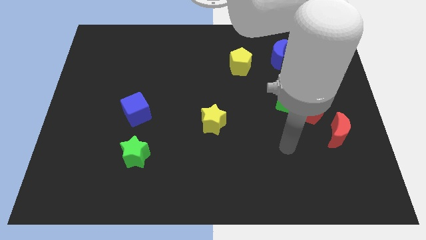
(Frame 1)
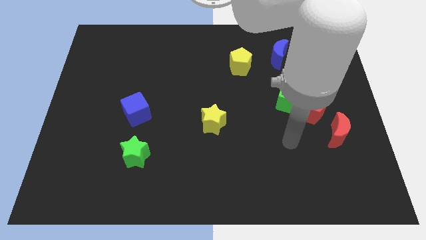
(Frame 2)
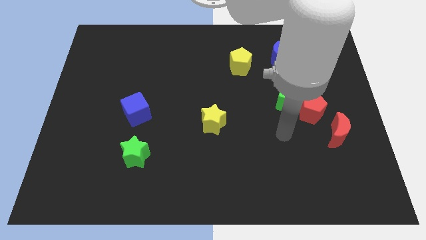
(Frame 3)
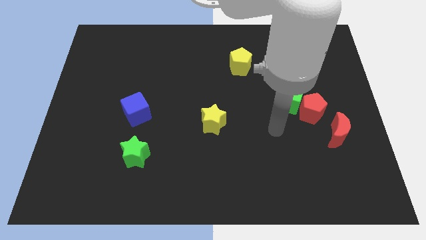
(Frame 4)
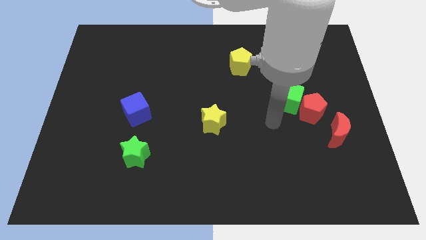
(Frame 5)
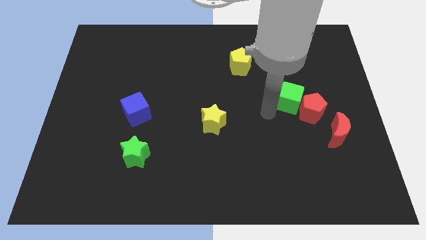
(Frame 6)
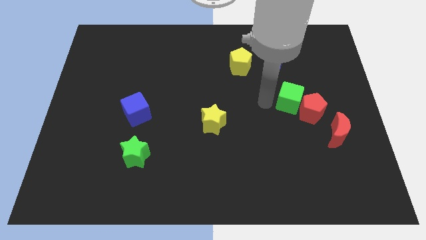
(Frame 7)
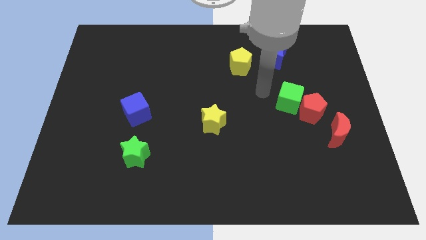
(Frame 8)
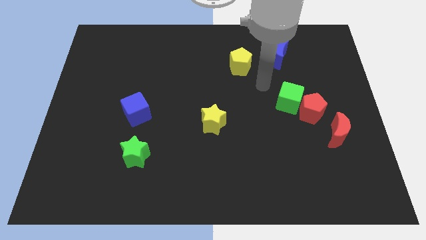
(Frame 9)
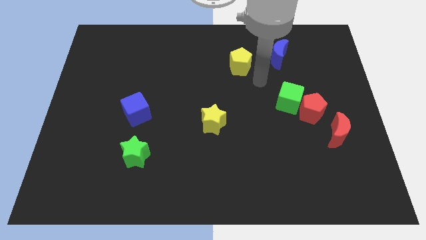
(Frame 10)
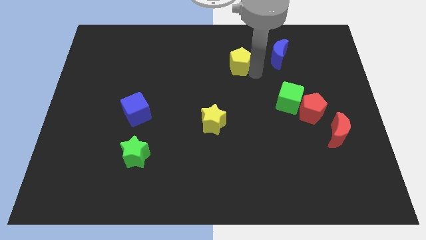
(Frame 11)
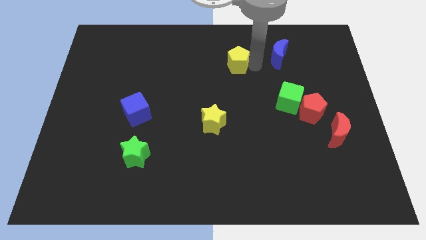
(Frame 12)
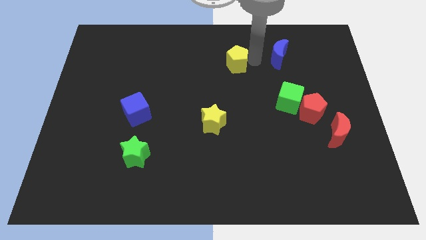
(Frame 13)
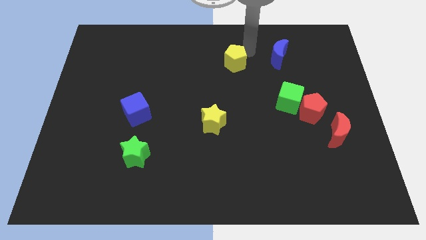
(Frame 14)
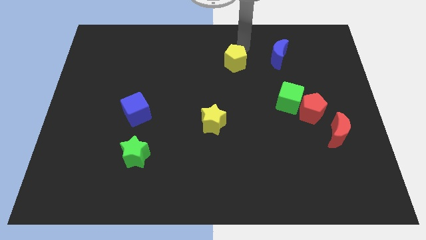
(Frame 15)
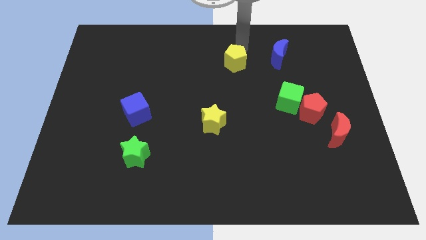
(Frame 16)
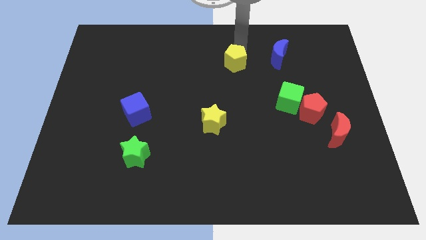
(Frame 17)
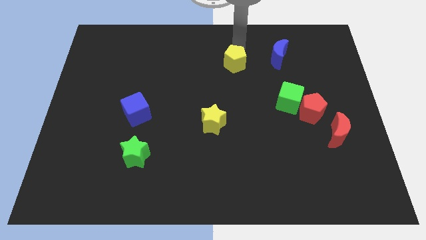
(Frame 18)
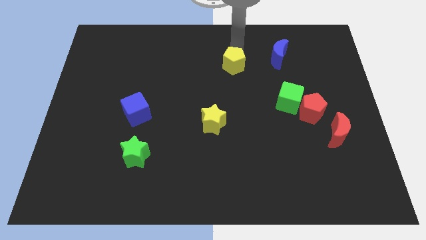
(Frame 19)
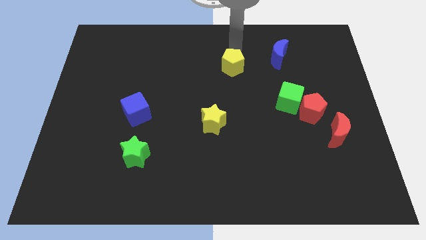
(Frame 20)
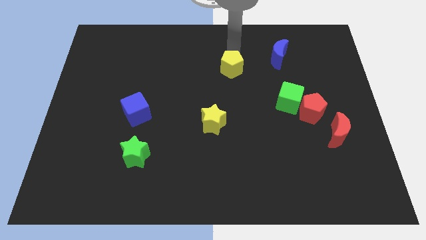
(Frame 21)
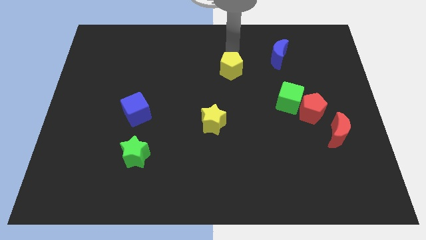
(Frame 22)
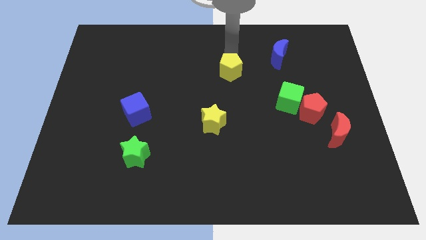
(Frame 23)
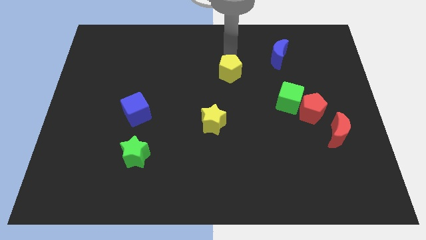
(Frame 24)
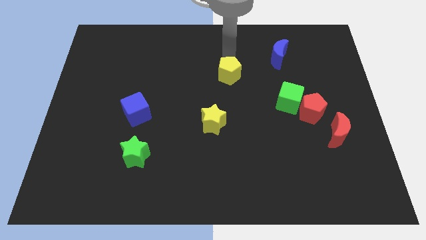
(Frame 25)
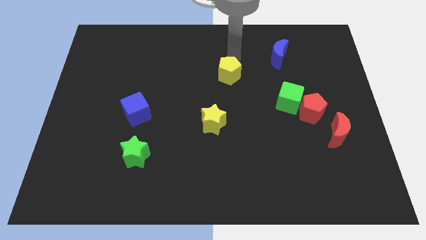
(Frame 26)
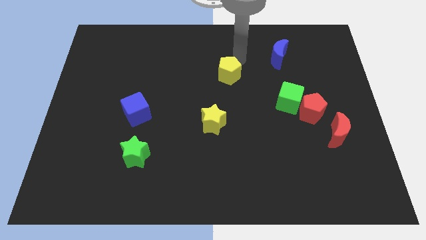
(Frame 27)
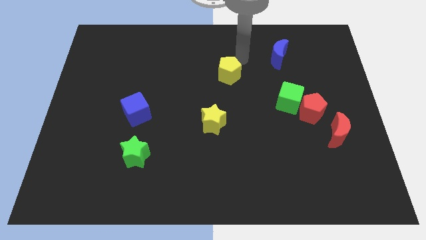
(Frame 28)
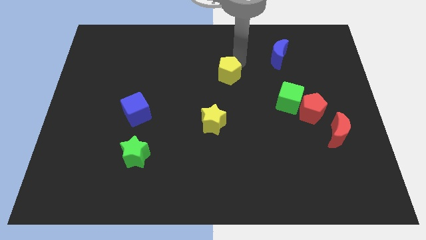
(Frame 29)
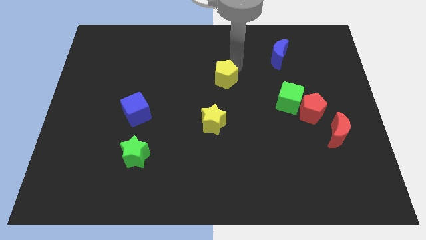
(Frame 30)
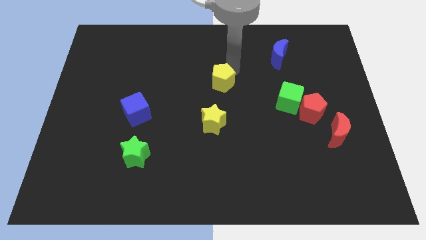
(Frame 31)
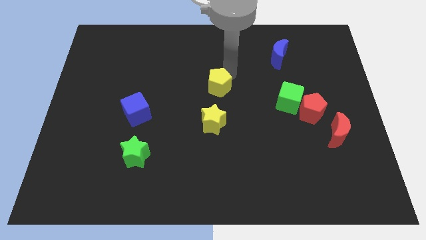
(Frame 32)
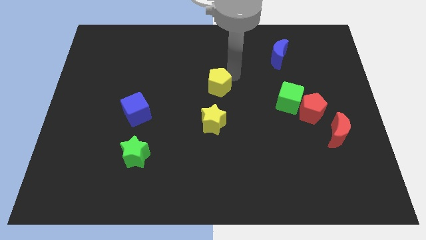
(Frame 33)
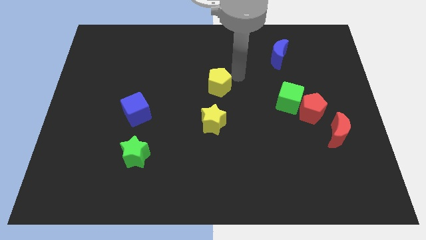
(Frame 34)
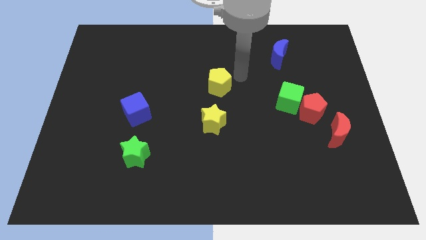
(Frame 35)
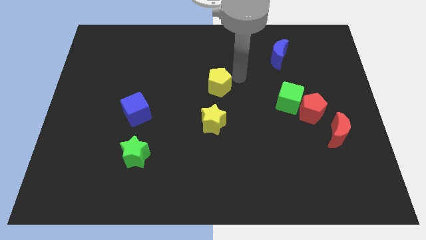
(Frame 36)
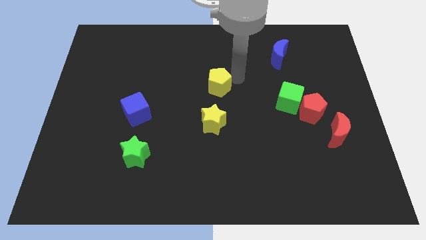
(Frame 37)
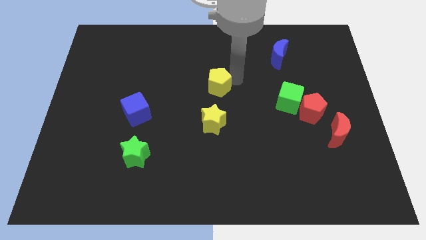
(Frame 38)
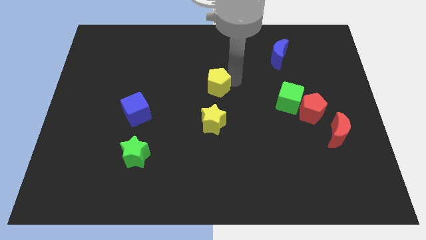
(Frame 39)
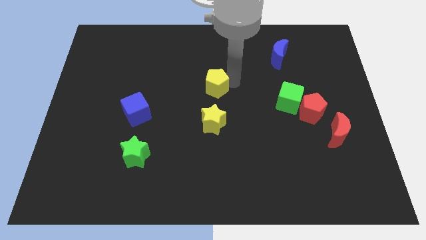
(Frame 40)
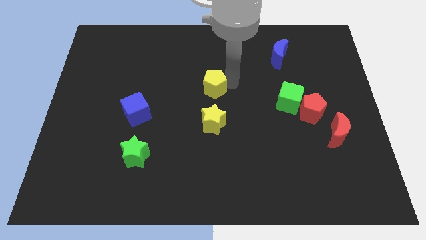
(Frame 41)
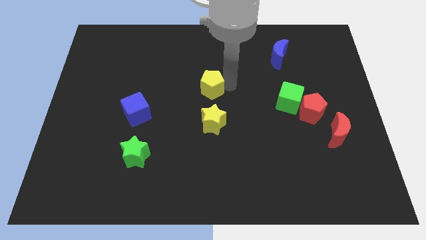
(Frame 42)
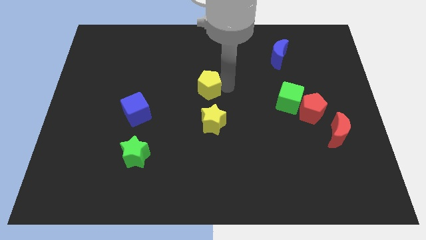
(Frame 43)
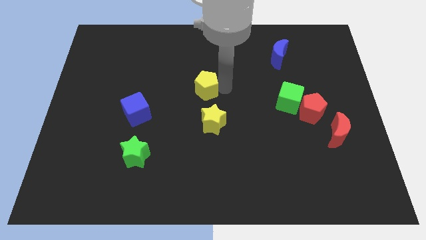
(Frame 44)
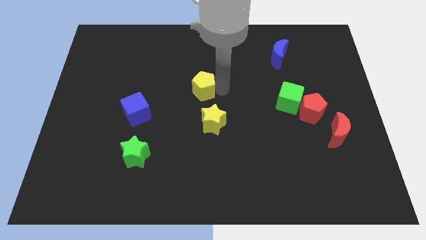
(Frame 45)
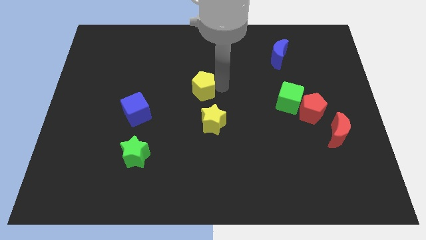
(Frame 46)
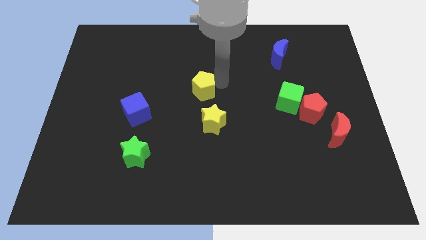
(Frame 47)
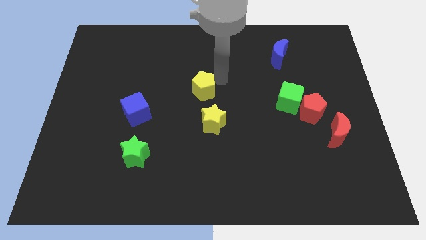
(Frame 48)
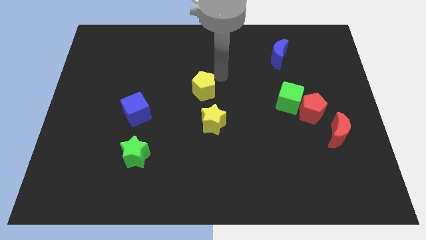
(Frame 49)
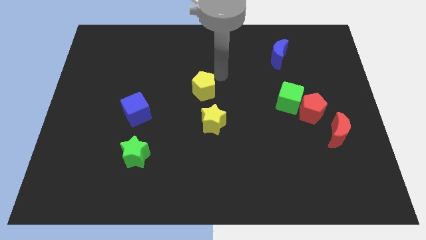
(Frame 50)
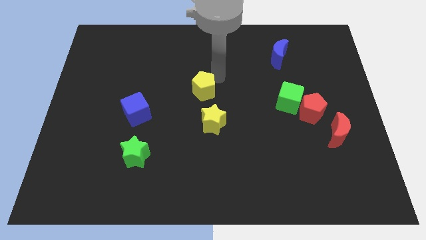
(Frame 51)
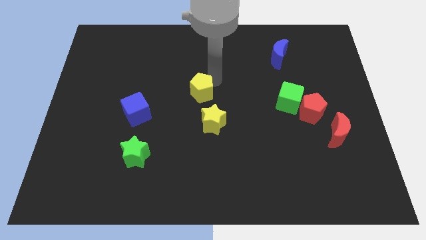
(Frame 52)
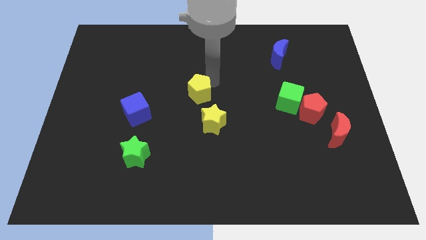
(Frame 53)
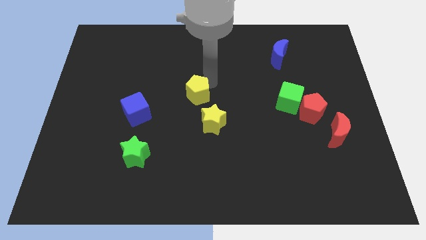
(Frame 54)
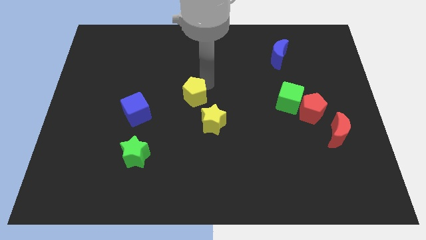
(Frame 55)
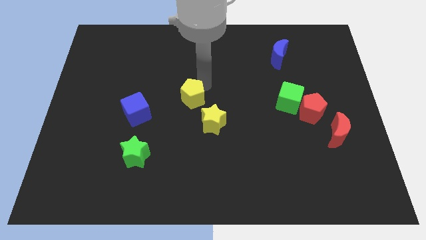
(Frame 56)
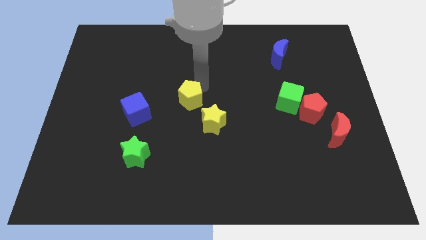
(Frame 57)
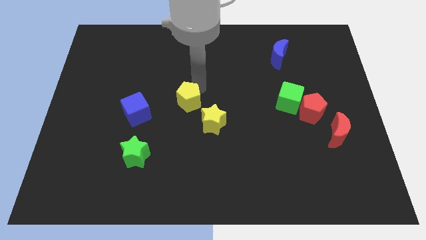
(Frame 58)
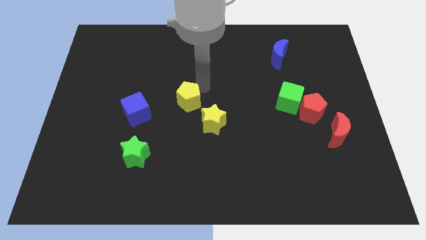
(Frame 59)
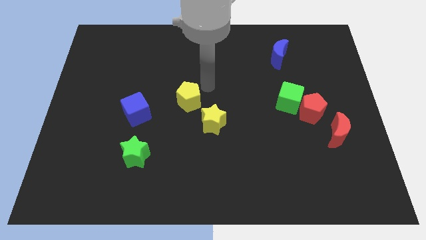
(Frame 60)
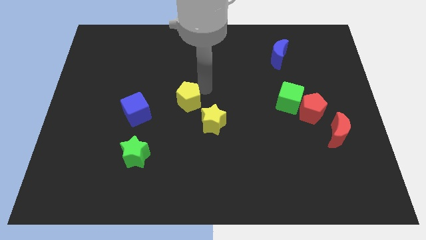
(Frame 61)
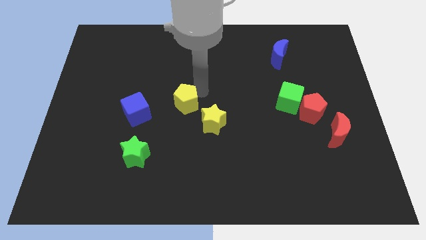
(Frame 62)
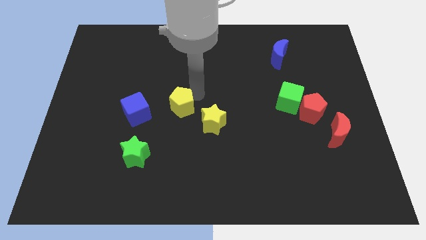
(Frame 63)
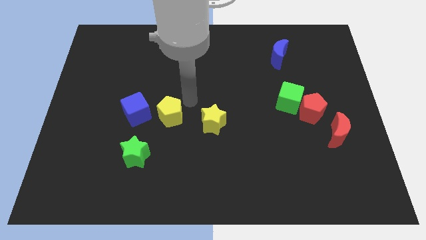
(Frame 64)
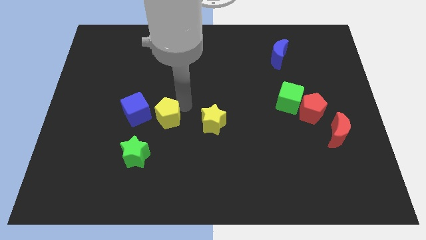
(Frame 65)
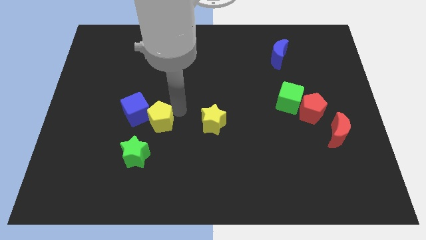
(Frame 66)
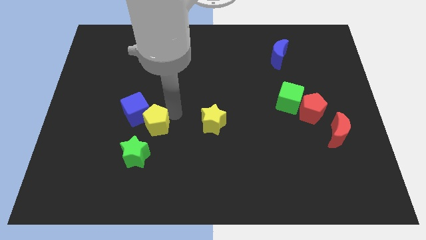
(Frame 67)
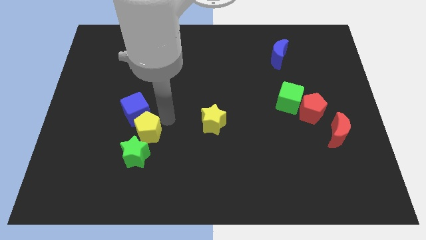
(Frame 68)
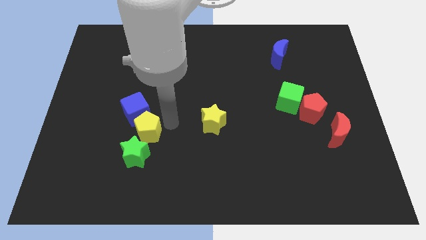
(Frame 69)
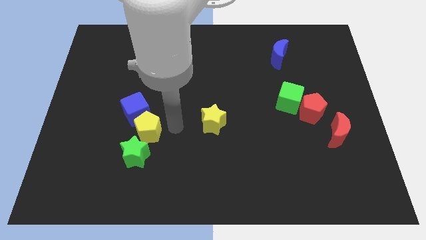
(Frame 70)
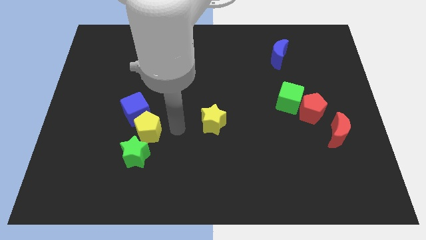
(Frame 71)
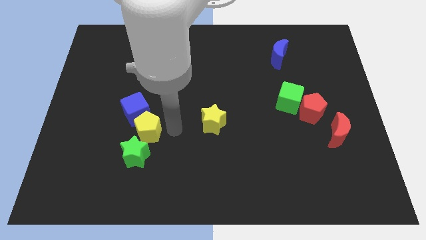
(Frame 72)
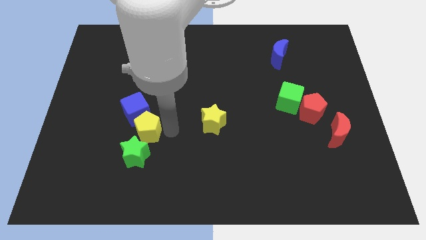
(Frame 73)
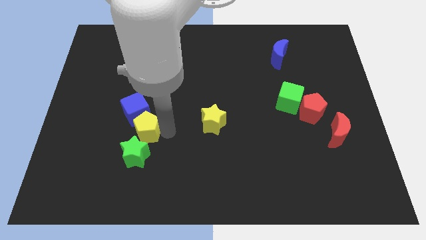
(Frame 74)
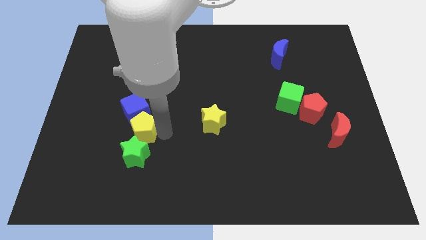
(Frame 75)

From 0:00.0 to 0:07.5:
slide the yellow pentagon to the top left of the green star
